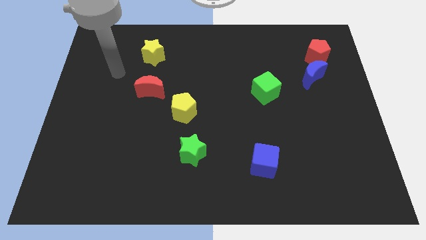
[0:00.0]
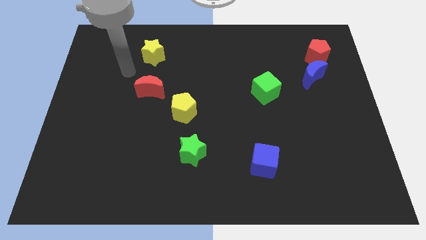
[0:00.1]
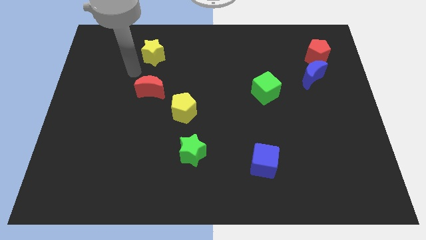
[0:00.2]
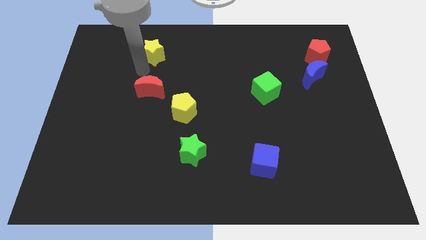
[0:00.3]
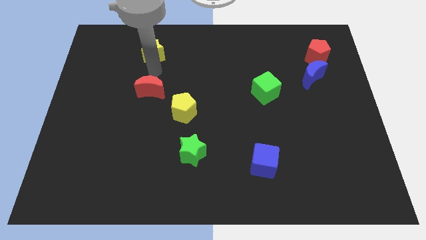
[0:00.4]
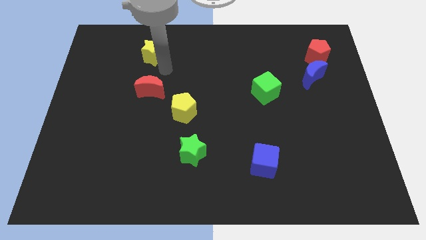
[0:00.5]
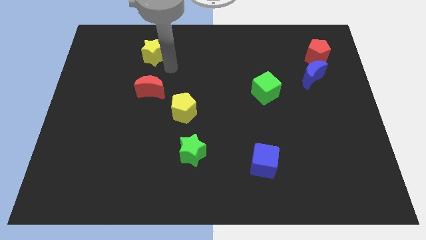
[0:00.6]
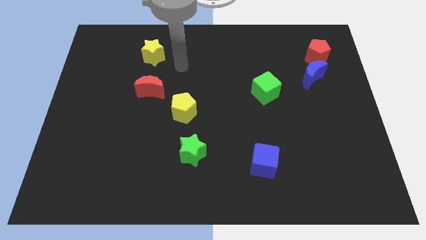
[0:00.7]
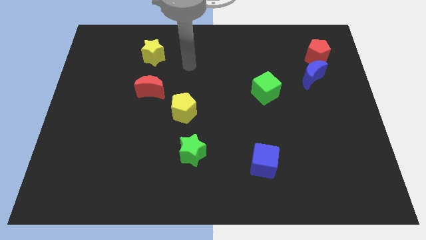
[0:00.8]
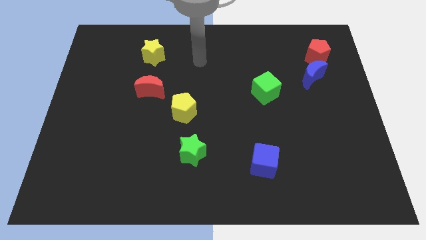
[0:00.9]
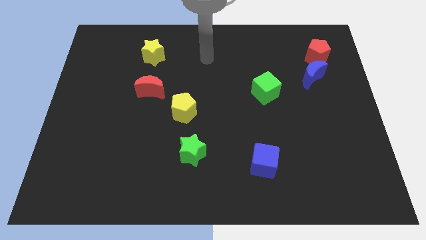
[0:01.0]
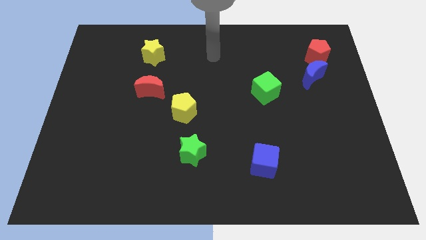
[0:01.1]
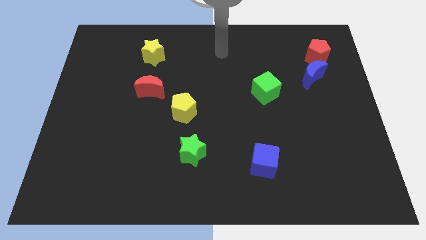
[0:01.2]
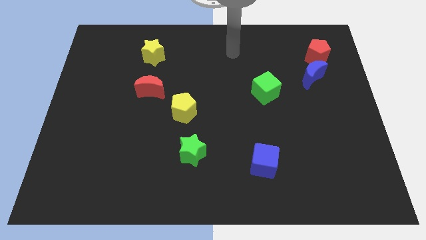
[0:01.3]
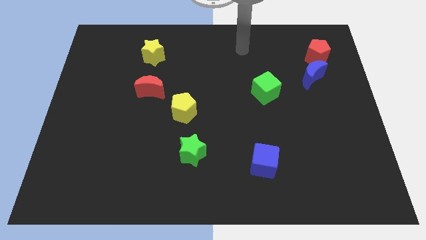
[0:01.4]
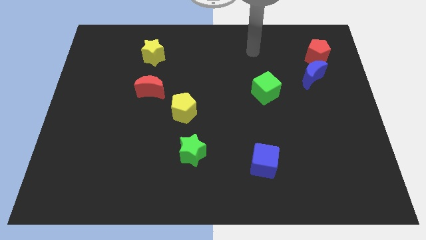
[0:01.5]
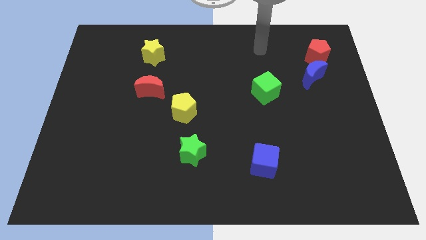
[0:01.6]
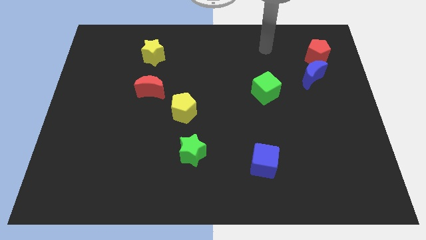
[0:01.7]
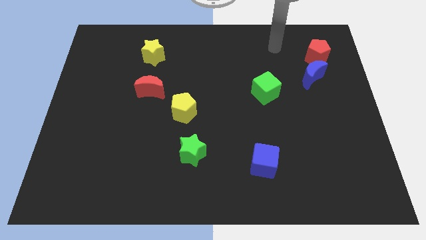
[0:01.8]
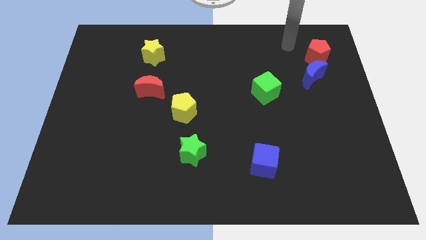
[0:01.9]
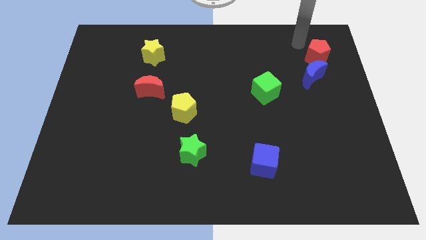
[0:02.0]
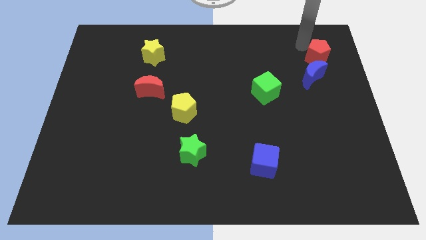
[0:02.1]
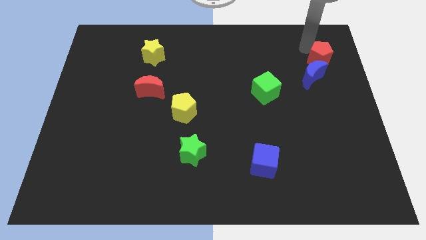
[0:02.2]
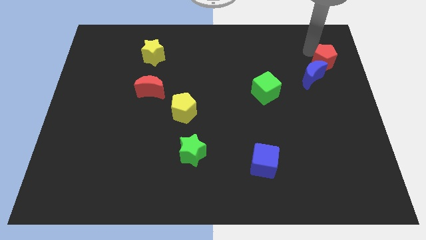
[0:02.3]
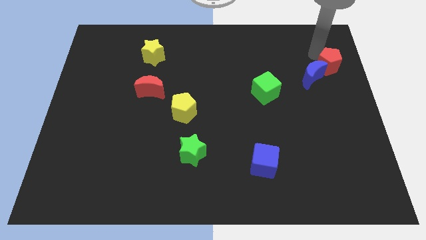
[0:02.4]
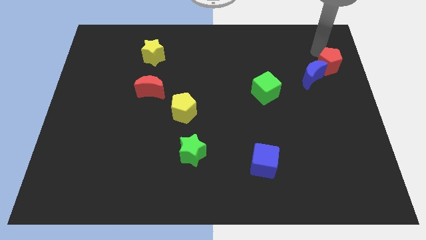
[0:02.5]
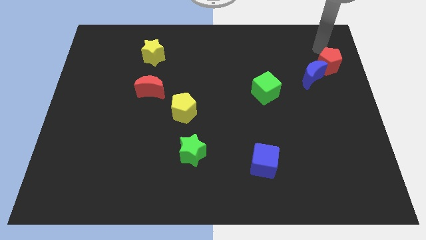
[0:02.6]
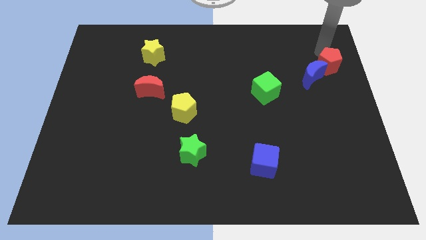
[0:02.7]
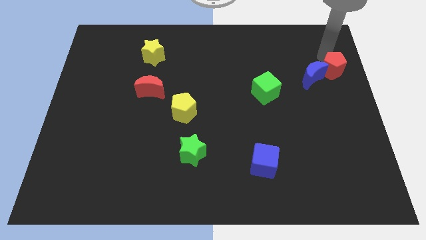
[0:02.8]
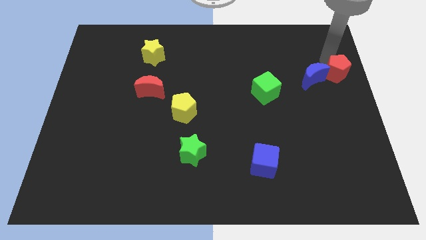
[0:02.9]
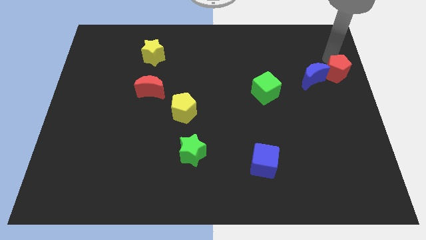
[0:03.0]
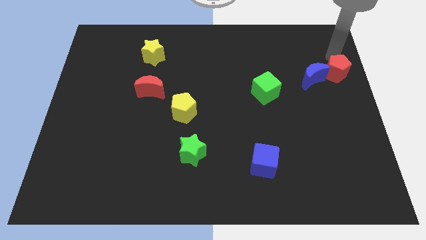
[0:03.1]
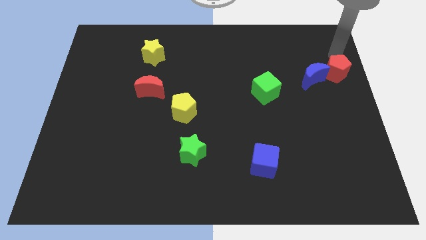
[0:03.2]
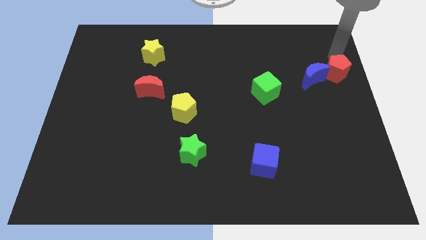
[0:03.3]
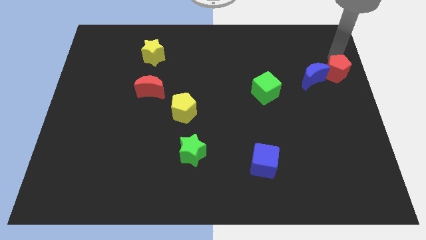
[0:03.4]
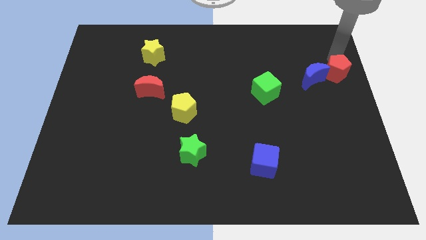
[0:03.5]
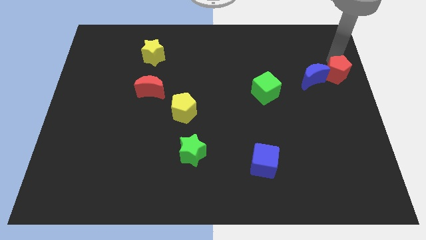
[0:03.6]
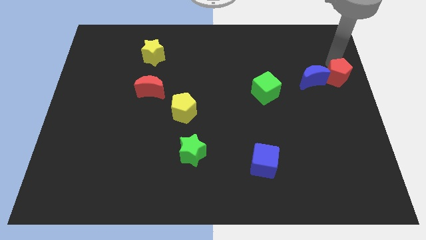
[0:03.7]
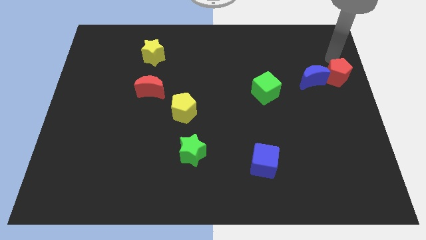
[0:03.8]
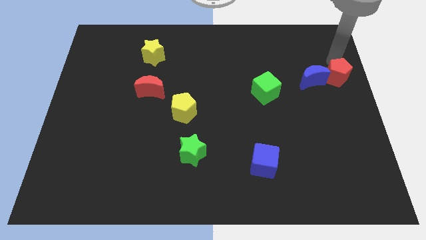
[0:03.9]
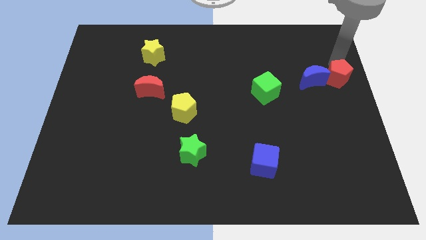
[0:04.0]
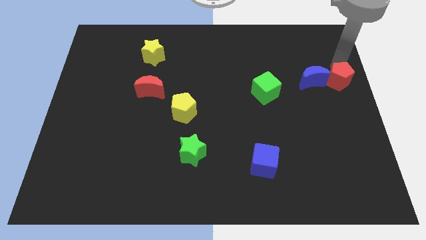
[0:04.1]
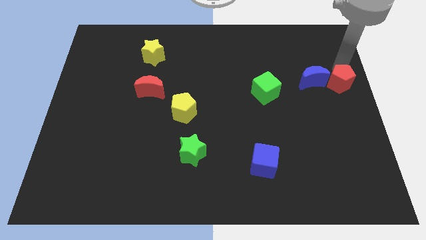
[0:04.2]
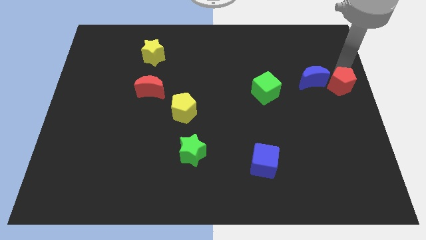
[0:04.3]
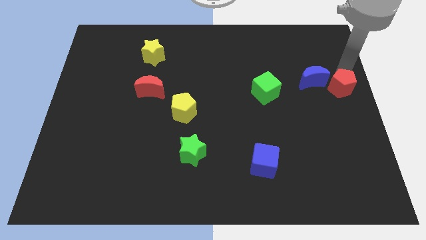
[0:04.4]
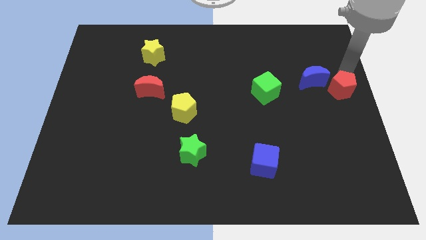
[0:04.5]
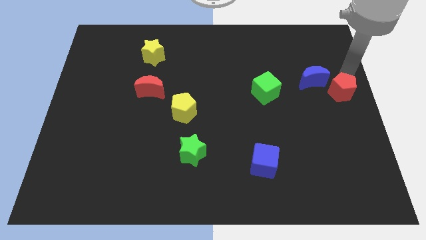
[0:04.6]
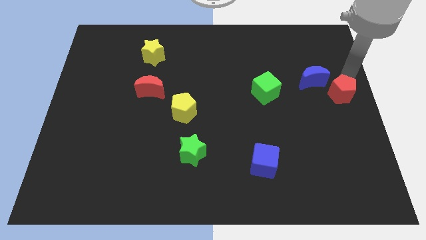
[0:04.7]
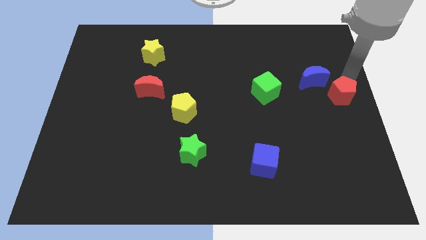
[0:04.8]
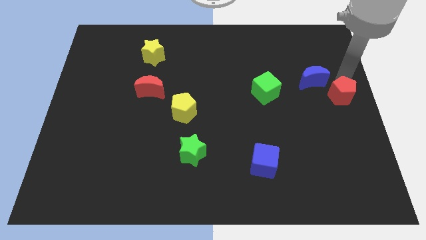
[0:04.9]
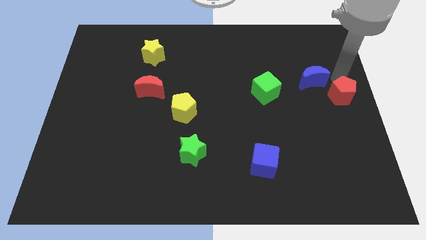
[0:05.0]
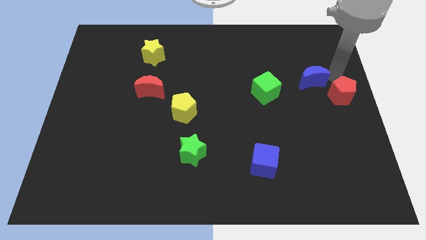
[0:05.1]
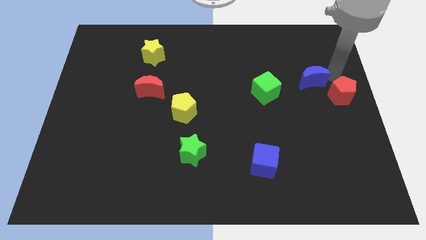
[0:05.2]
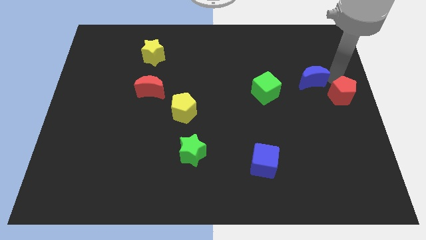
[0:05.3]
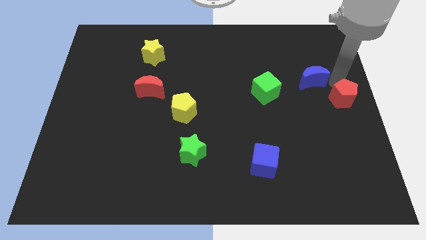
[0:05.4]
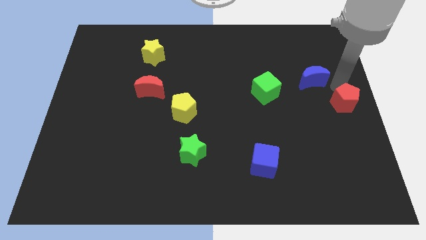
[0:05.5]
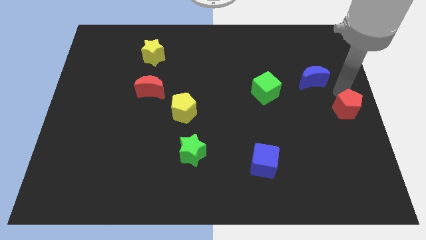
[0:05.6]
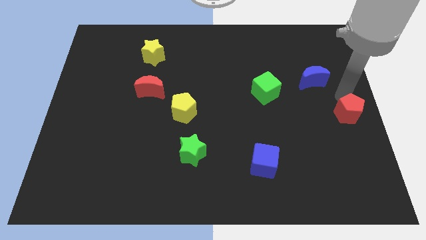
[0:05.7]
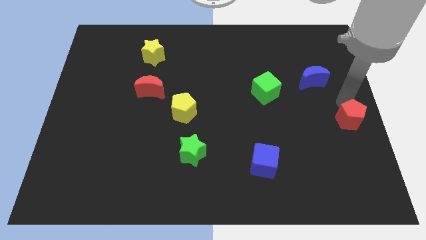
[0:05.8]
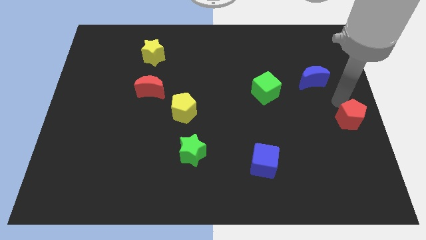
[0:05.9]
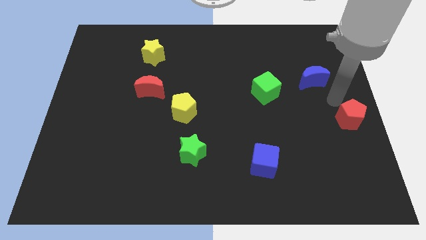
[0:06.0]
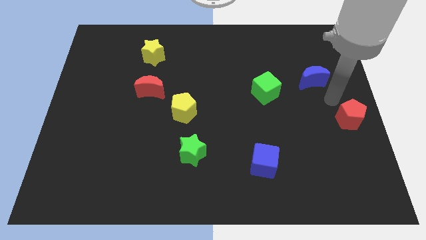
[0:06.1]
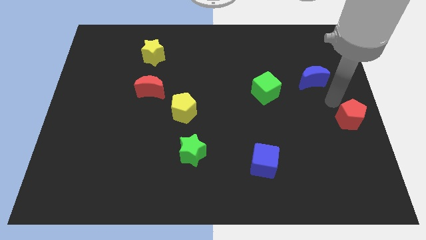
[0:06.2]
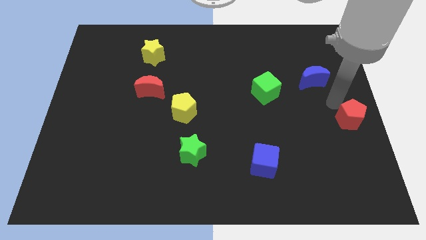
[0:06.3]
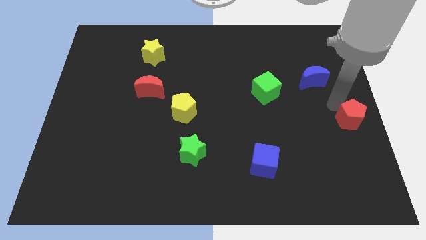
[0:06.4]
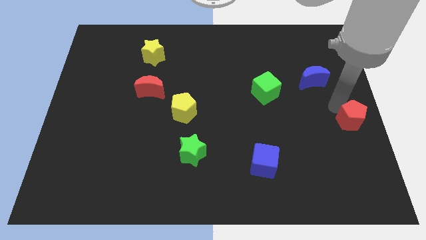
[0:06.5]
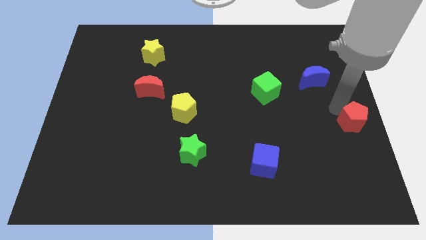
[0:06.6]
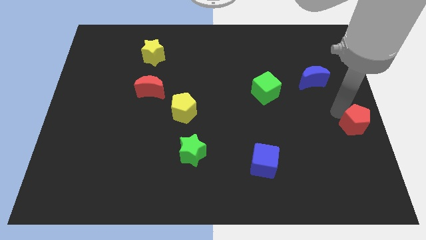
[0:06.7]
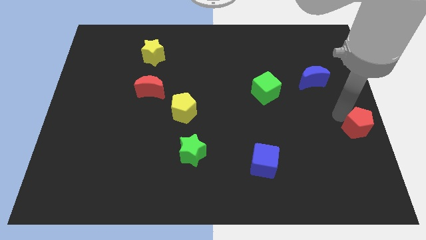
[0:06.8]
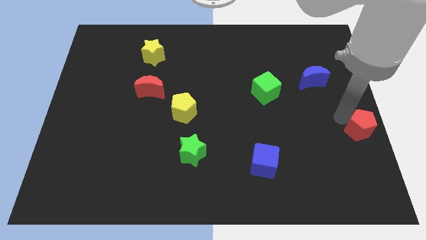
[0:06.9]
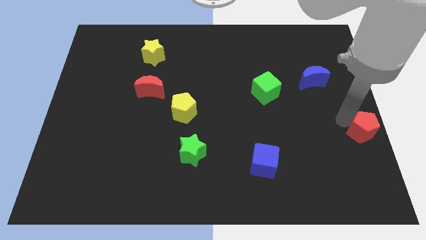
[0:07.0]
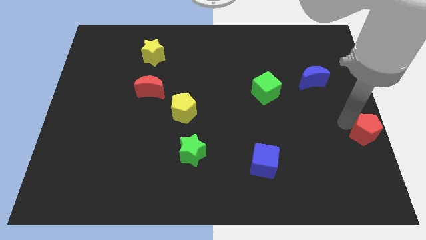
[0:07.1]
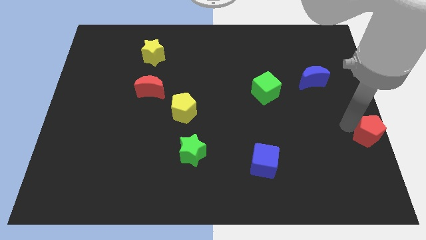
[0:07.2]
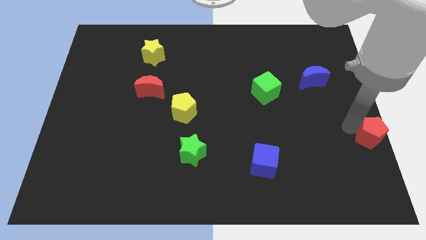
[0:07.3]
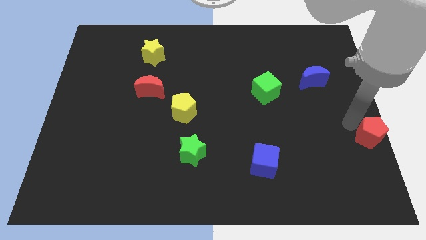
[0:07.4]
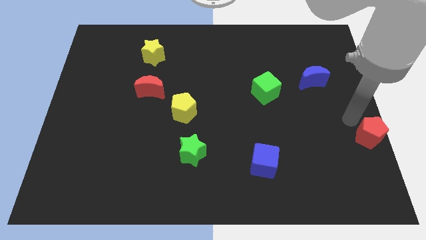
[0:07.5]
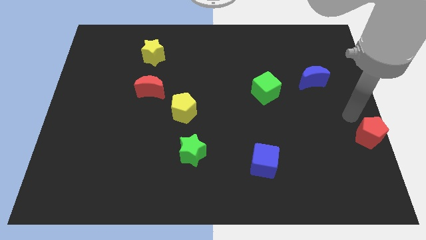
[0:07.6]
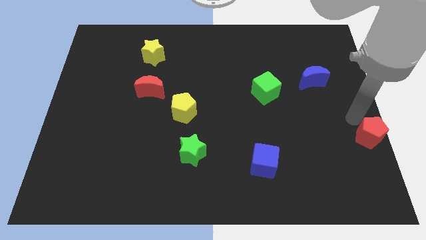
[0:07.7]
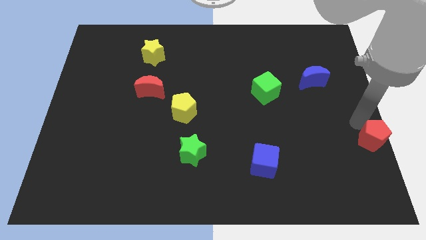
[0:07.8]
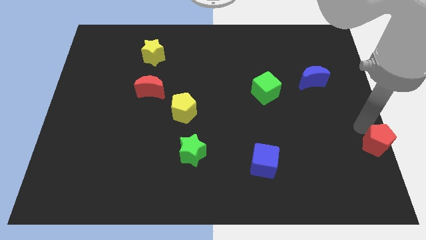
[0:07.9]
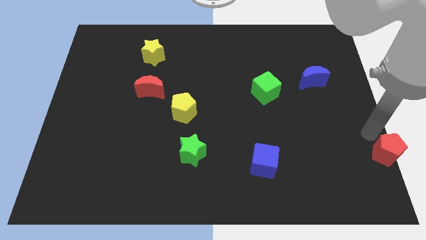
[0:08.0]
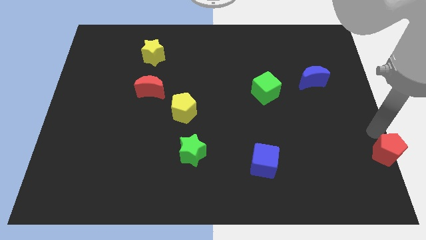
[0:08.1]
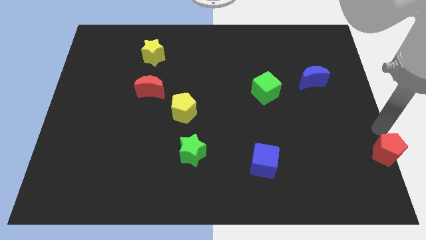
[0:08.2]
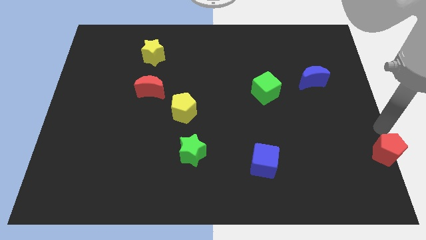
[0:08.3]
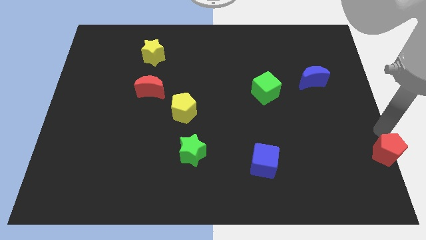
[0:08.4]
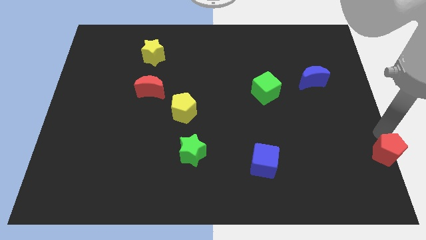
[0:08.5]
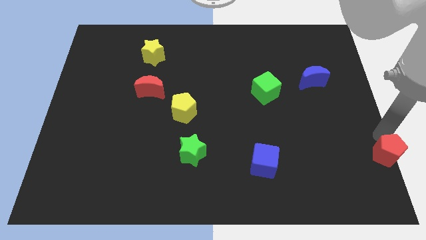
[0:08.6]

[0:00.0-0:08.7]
put the red pentagon to the bottom right corner
